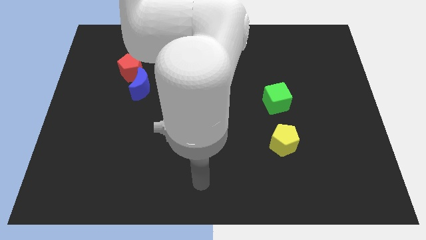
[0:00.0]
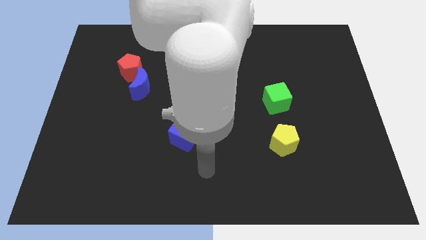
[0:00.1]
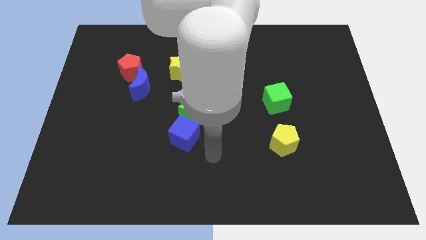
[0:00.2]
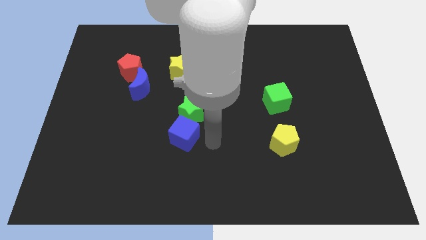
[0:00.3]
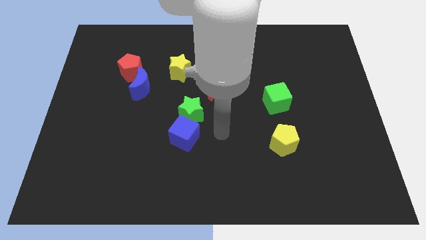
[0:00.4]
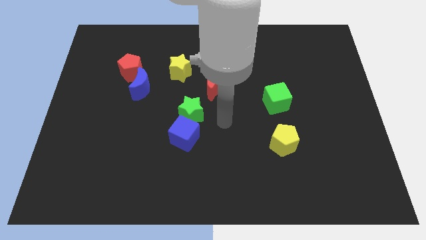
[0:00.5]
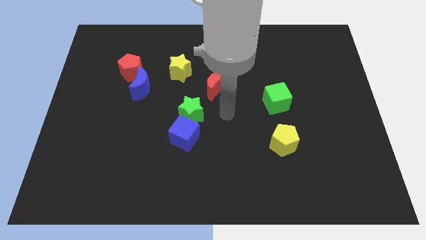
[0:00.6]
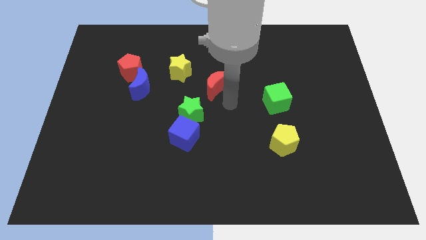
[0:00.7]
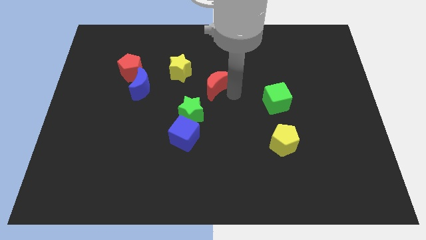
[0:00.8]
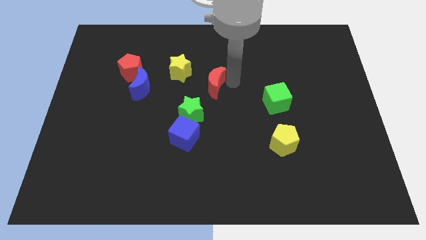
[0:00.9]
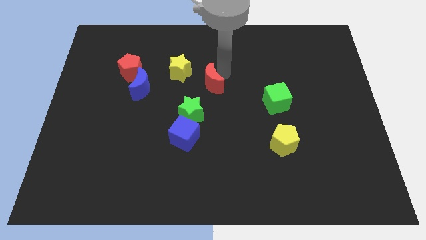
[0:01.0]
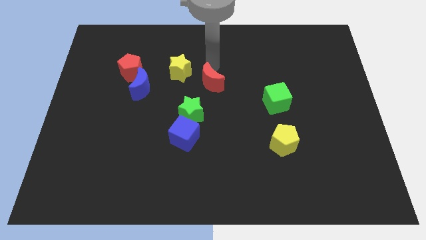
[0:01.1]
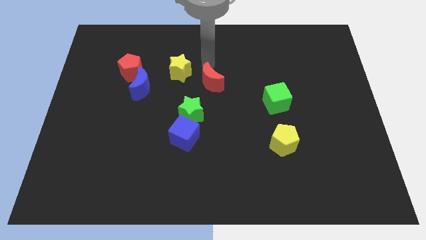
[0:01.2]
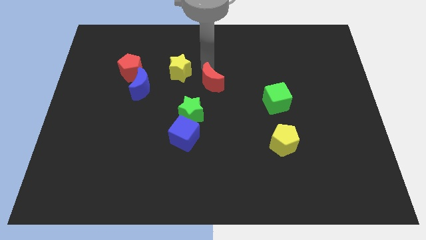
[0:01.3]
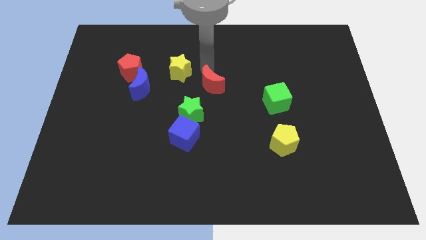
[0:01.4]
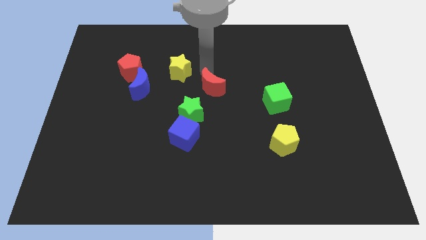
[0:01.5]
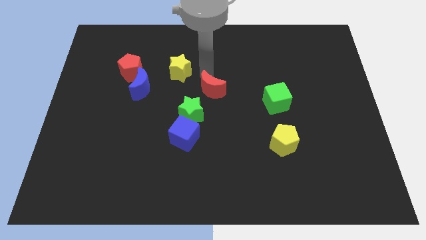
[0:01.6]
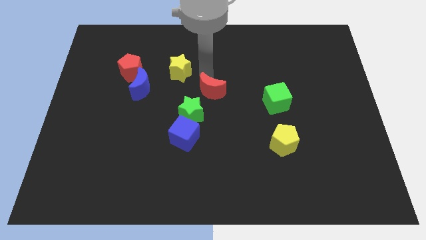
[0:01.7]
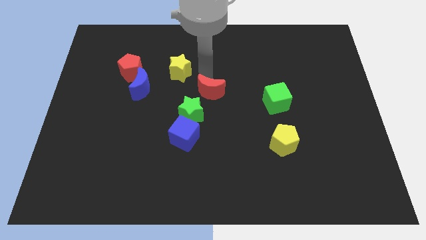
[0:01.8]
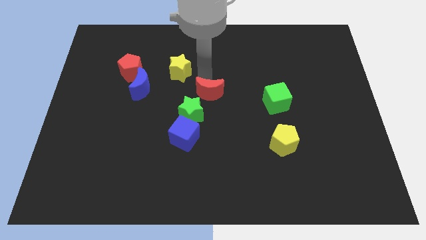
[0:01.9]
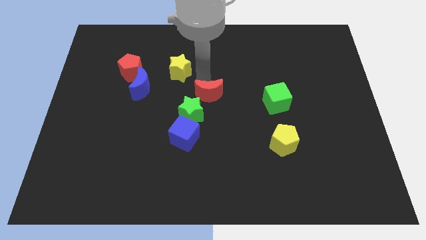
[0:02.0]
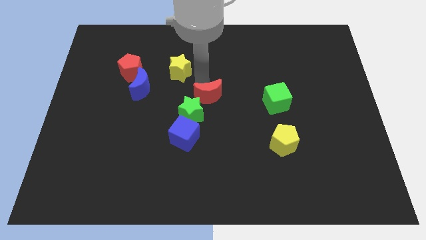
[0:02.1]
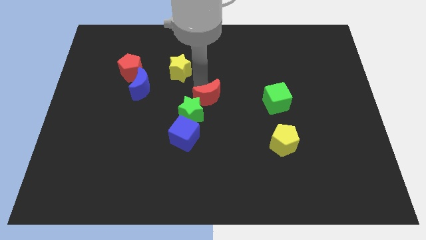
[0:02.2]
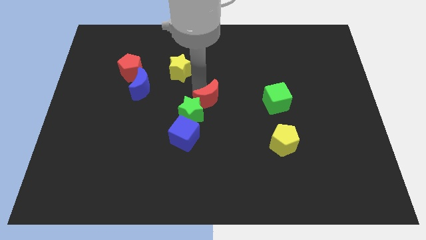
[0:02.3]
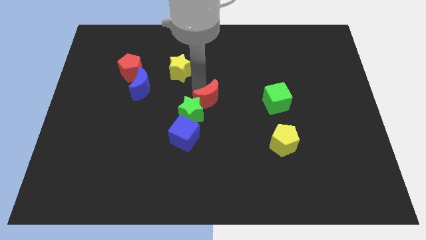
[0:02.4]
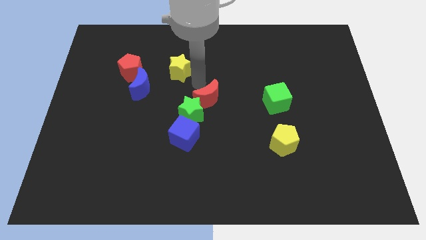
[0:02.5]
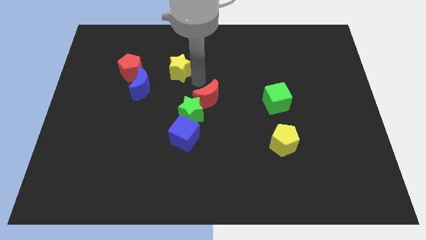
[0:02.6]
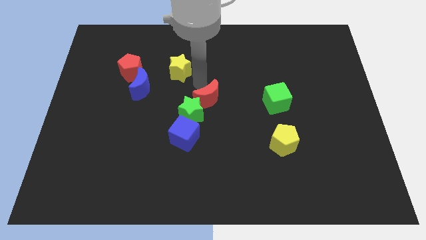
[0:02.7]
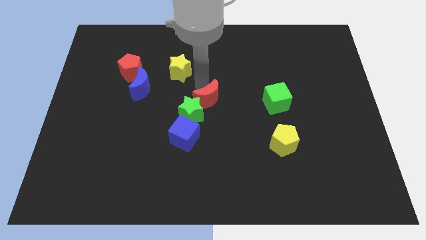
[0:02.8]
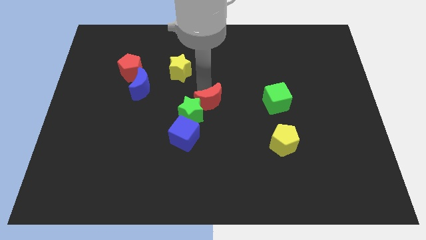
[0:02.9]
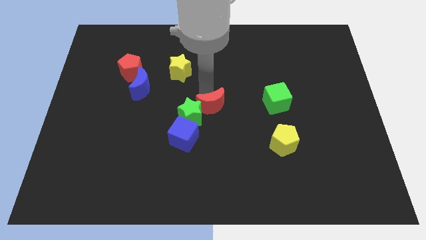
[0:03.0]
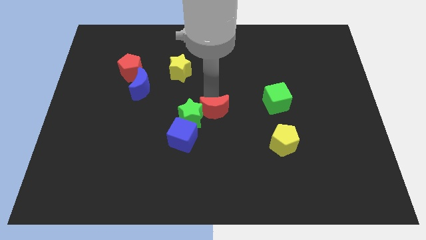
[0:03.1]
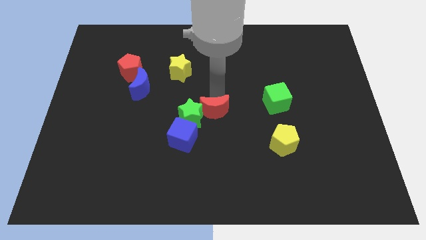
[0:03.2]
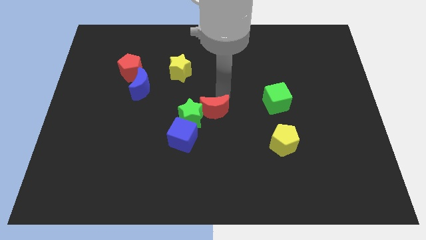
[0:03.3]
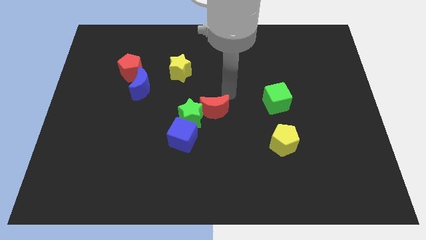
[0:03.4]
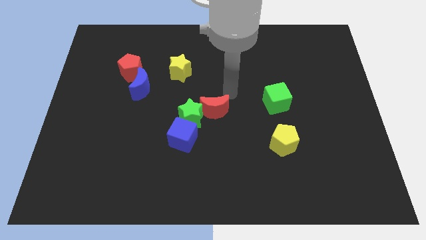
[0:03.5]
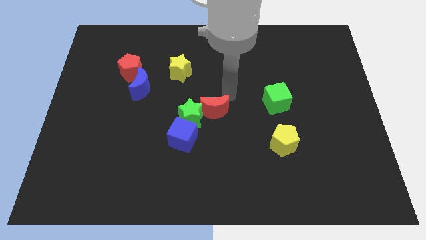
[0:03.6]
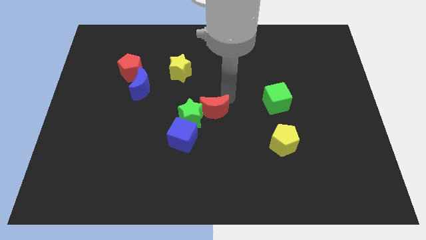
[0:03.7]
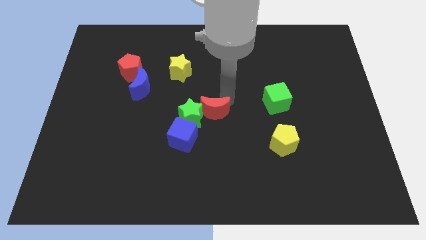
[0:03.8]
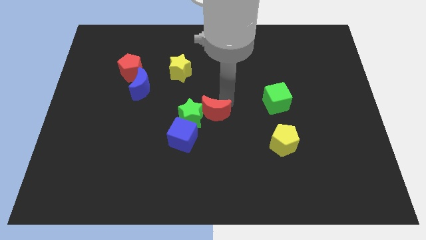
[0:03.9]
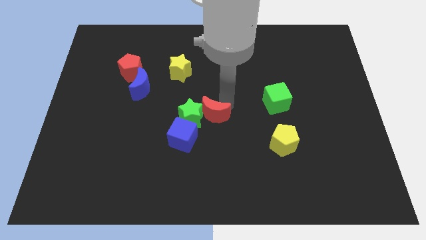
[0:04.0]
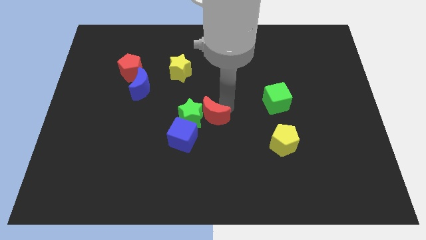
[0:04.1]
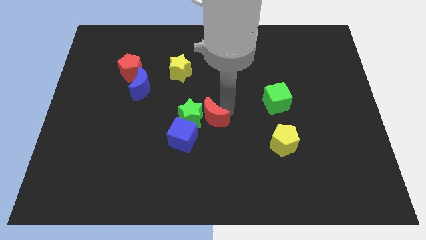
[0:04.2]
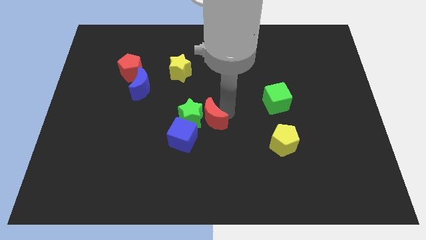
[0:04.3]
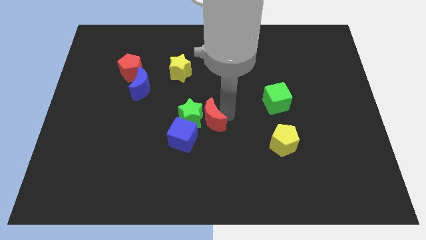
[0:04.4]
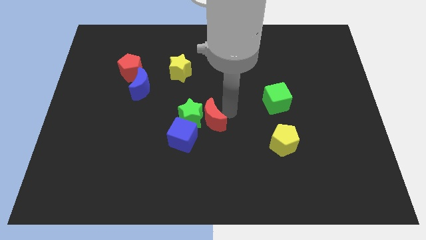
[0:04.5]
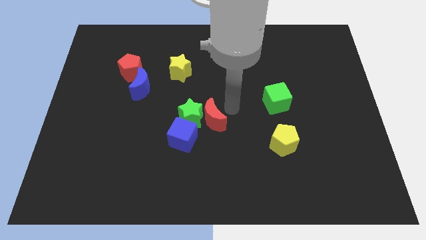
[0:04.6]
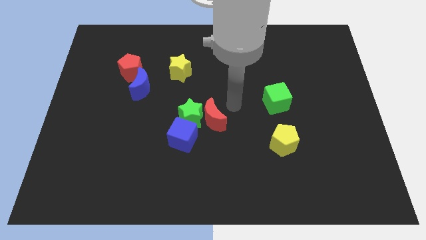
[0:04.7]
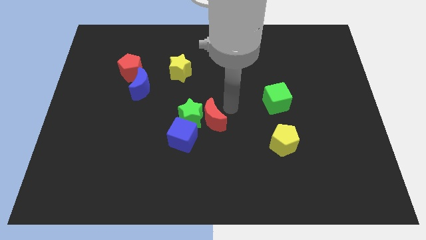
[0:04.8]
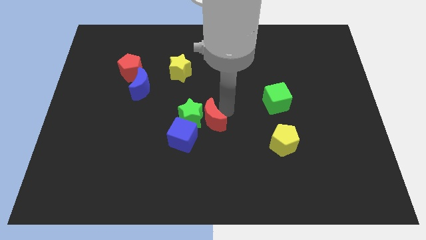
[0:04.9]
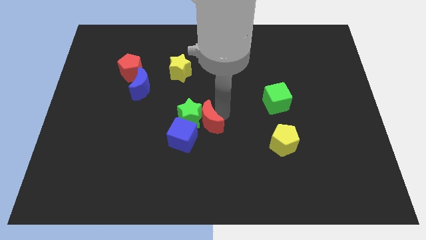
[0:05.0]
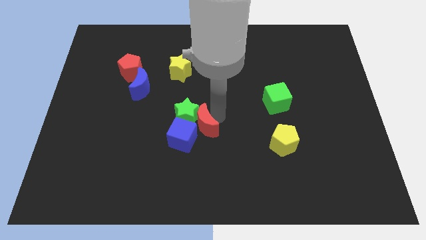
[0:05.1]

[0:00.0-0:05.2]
move the red moon close to the blue cube

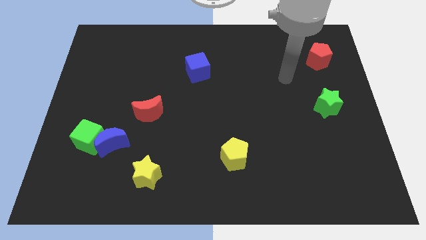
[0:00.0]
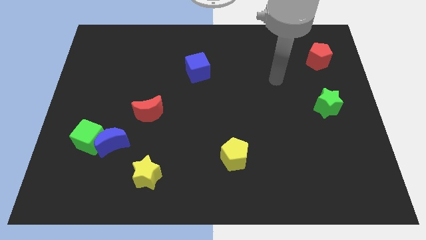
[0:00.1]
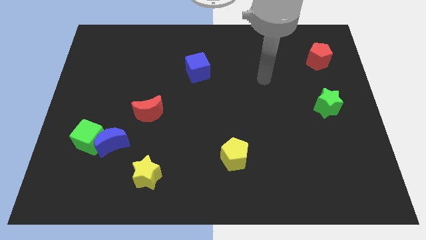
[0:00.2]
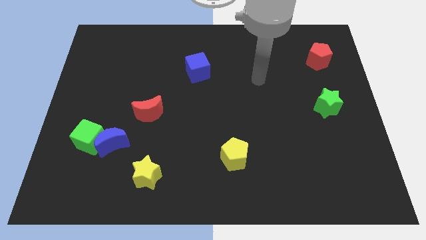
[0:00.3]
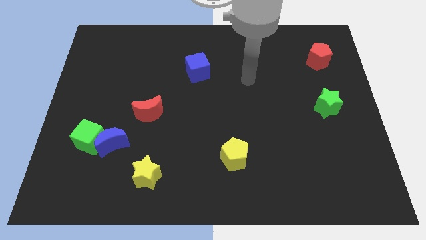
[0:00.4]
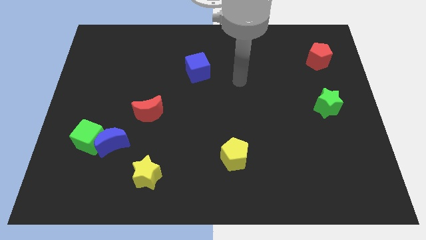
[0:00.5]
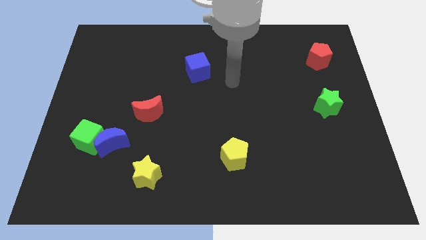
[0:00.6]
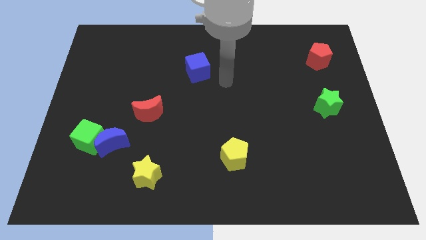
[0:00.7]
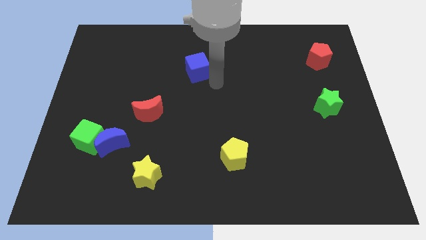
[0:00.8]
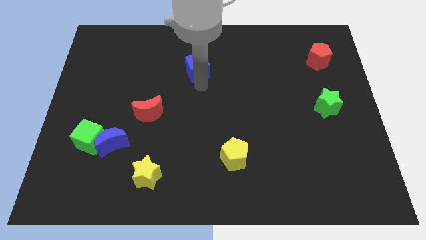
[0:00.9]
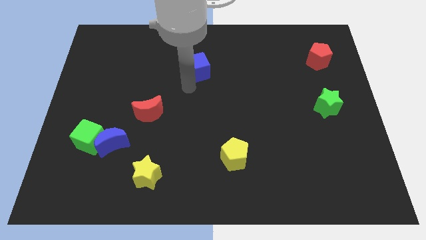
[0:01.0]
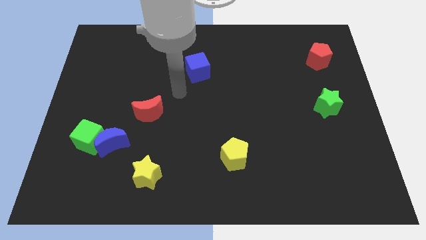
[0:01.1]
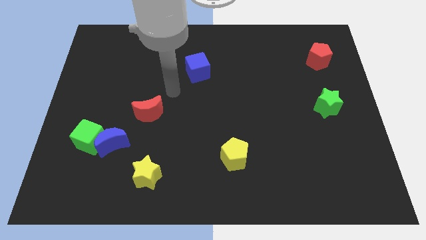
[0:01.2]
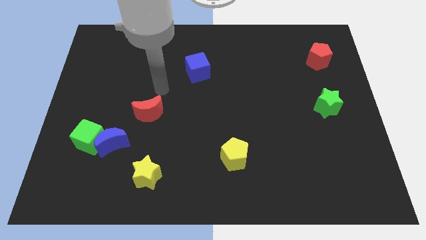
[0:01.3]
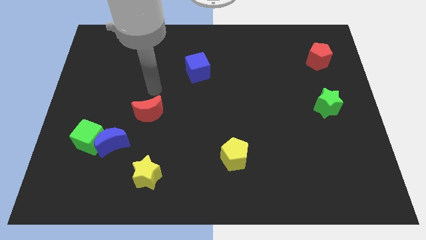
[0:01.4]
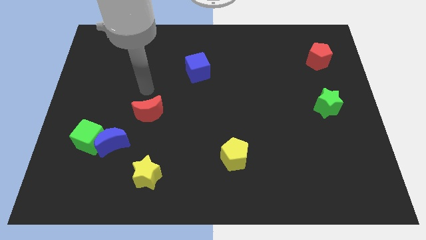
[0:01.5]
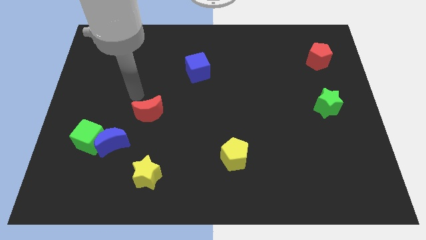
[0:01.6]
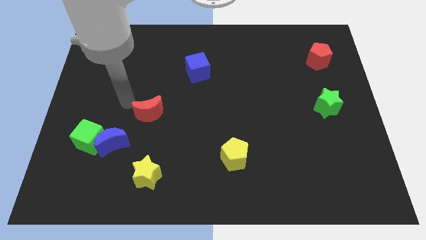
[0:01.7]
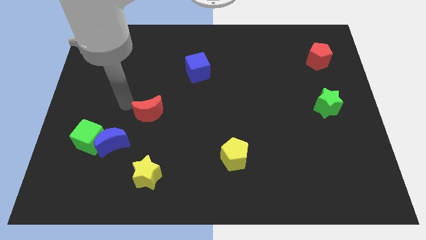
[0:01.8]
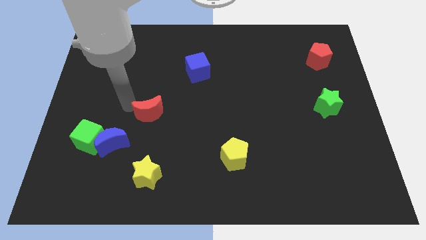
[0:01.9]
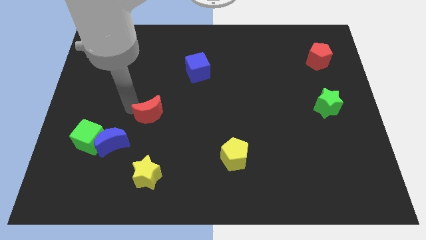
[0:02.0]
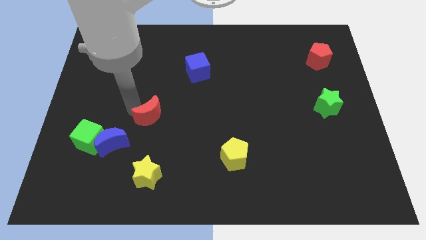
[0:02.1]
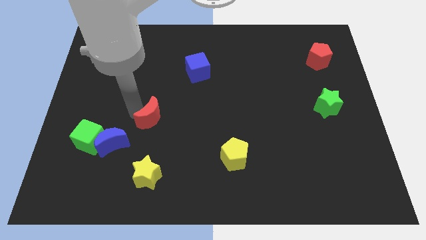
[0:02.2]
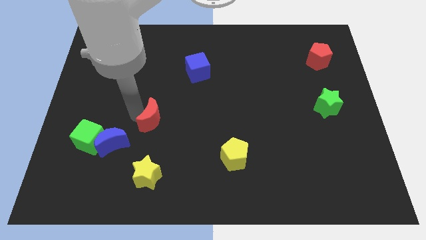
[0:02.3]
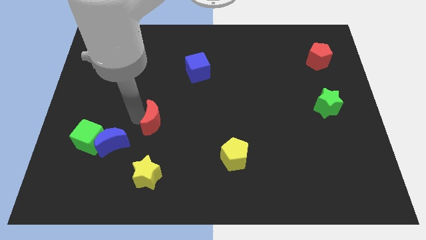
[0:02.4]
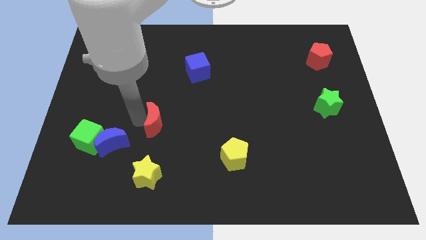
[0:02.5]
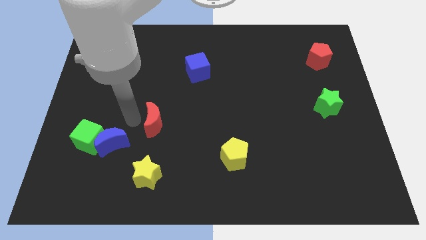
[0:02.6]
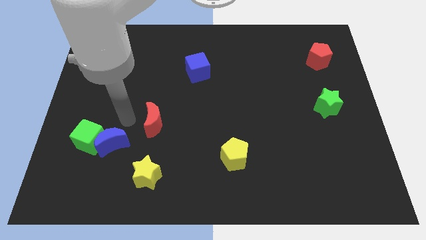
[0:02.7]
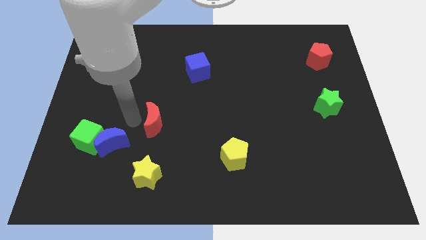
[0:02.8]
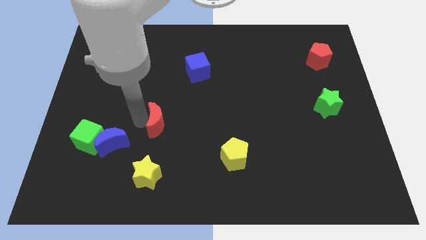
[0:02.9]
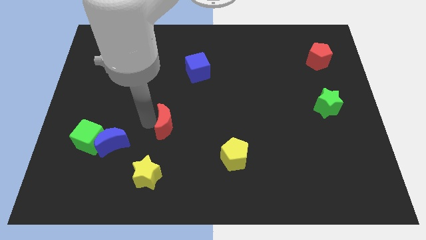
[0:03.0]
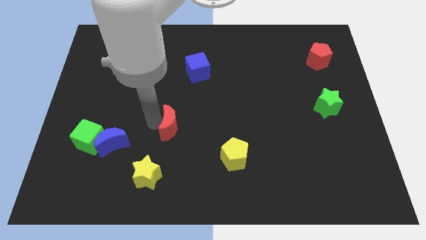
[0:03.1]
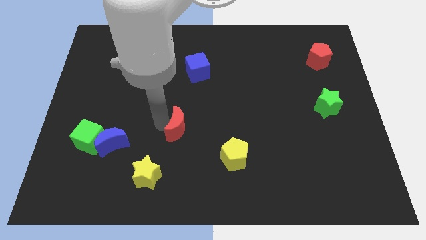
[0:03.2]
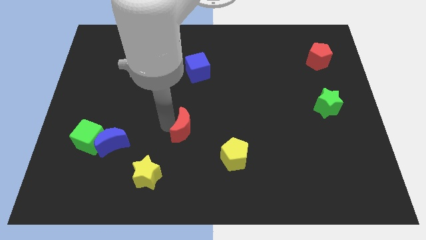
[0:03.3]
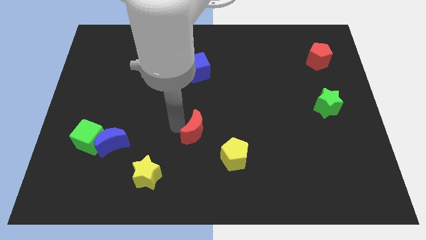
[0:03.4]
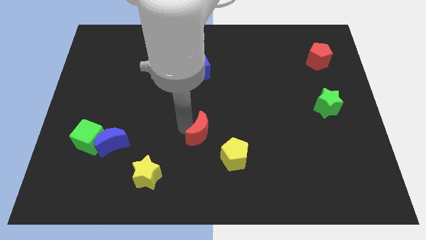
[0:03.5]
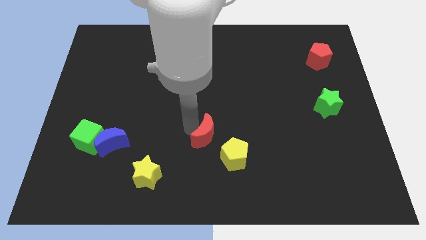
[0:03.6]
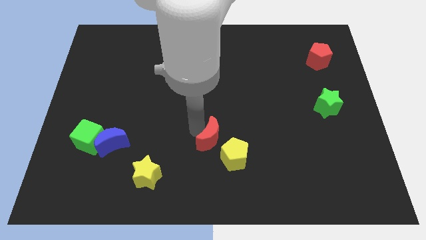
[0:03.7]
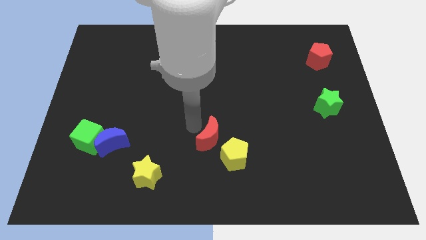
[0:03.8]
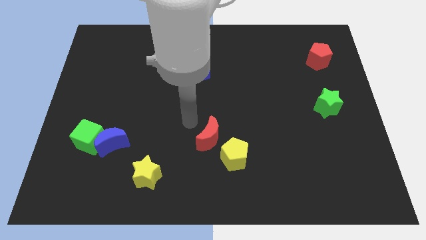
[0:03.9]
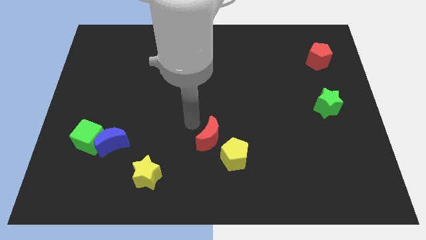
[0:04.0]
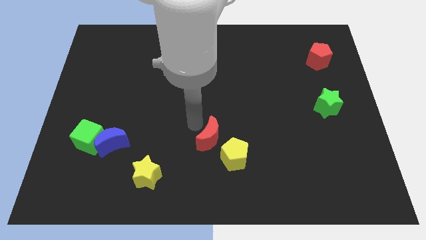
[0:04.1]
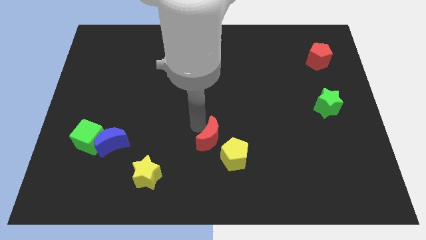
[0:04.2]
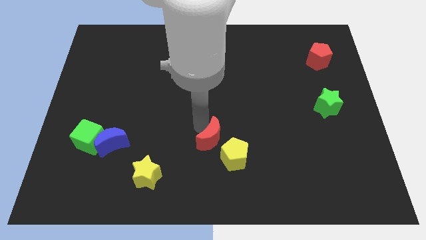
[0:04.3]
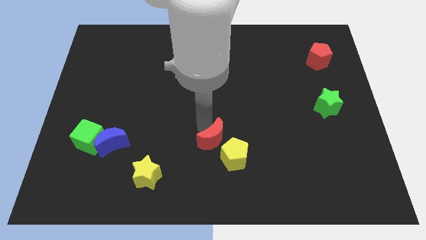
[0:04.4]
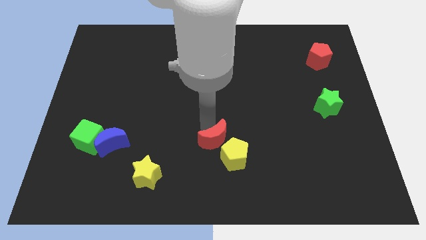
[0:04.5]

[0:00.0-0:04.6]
move the red moon next to the yellow pentagon
